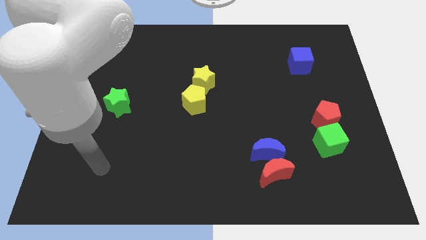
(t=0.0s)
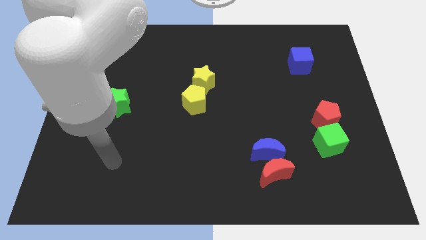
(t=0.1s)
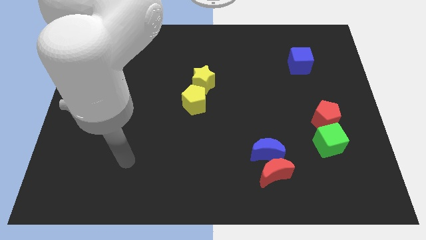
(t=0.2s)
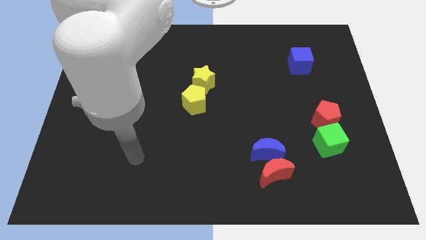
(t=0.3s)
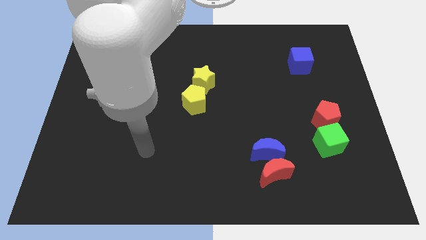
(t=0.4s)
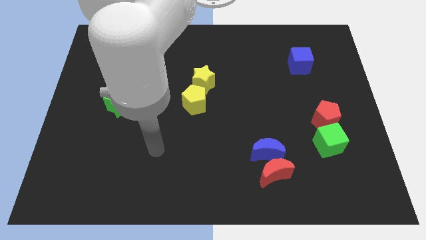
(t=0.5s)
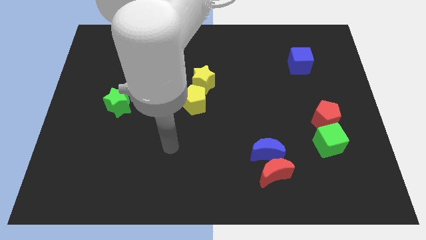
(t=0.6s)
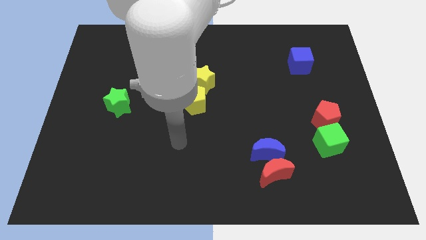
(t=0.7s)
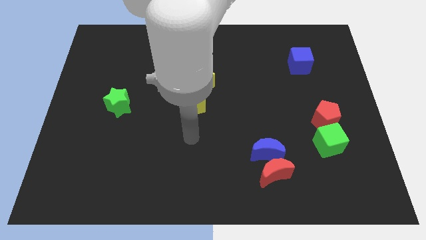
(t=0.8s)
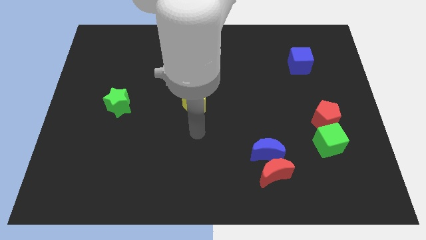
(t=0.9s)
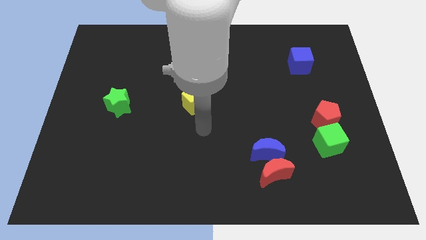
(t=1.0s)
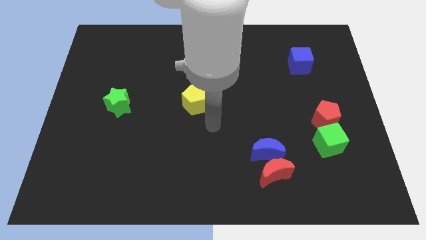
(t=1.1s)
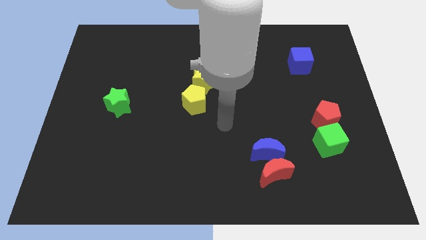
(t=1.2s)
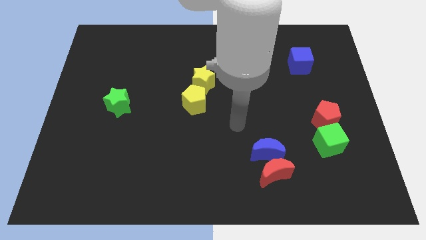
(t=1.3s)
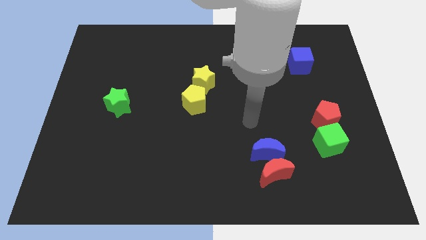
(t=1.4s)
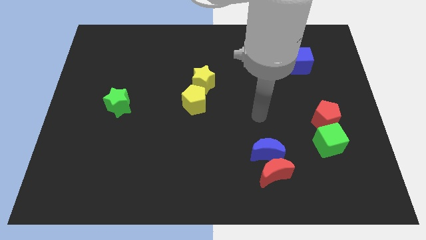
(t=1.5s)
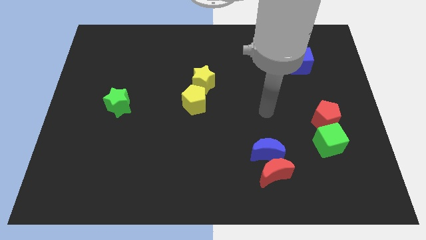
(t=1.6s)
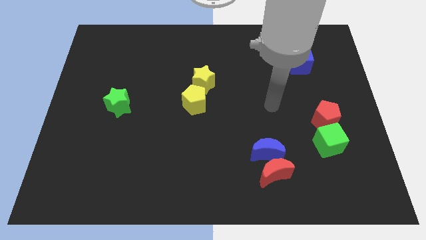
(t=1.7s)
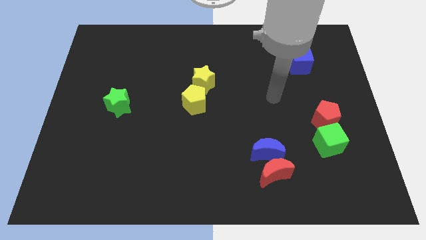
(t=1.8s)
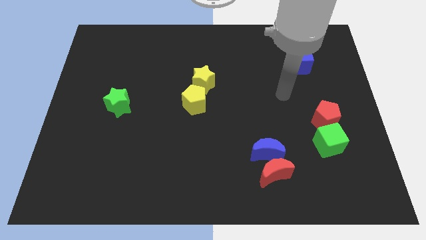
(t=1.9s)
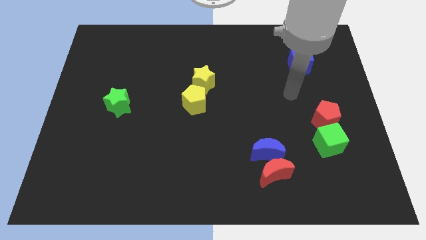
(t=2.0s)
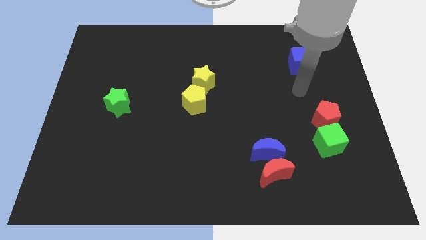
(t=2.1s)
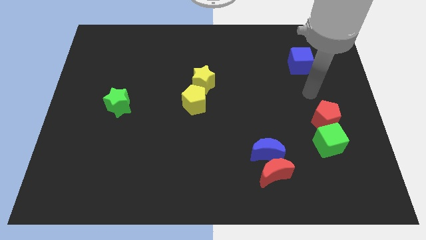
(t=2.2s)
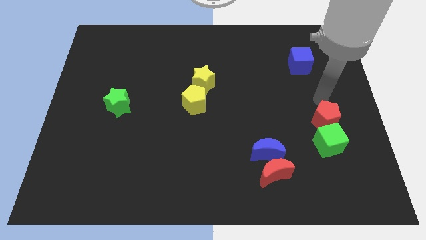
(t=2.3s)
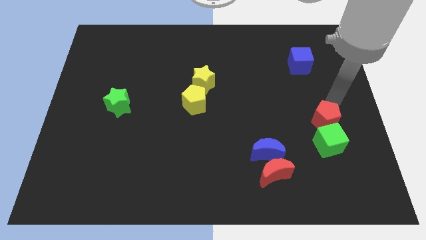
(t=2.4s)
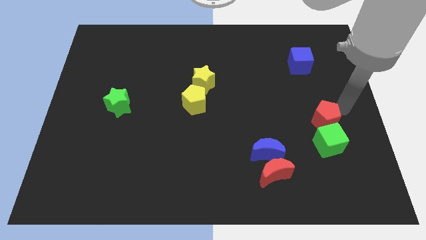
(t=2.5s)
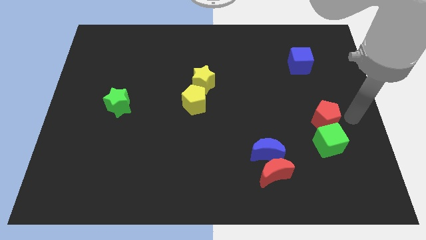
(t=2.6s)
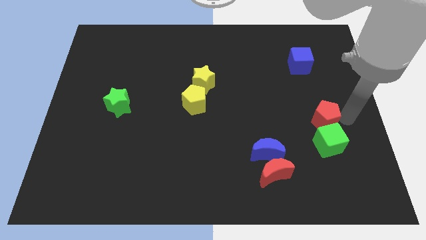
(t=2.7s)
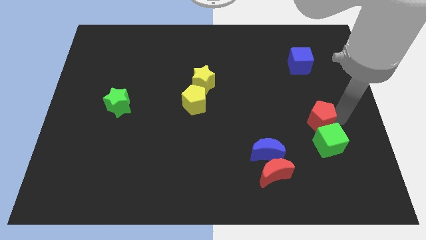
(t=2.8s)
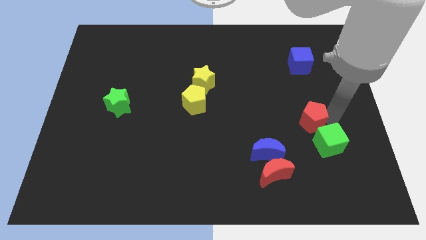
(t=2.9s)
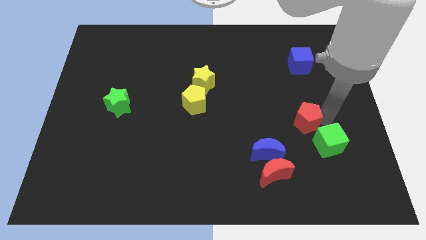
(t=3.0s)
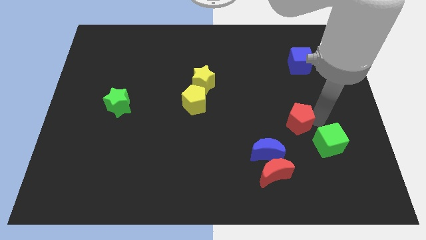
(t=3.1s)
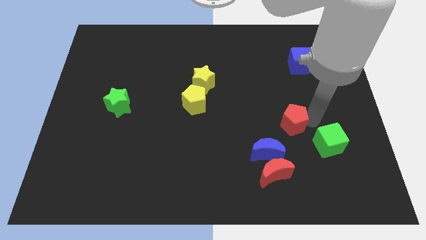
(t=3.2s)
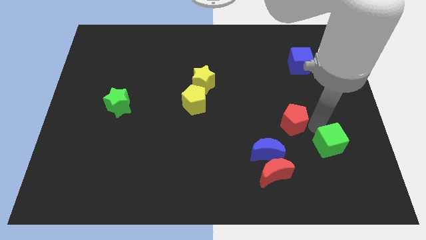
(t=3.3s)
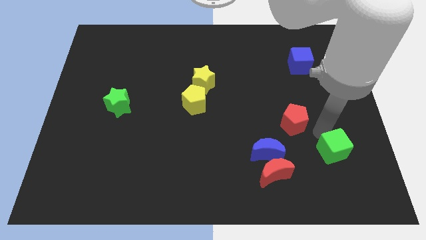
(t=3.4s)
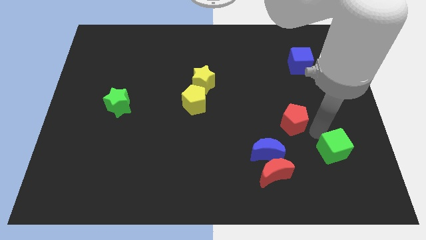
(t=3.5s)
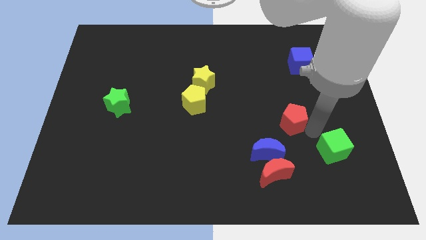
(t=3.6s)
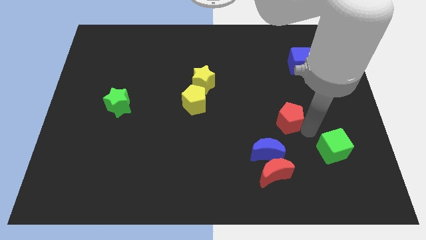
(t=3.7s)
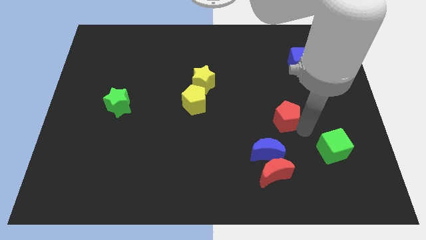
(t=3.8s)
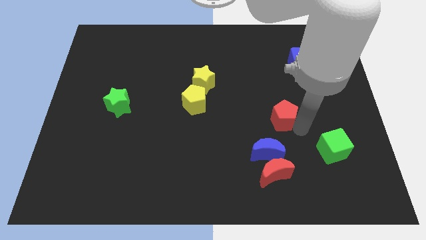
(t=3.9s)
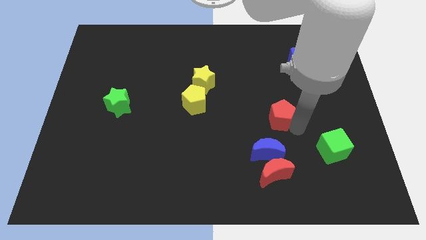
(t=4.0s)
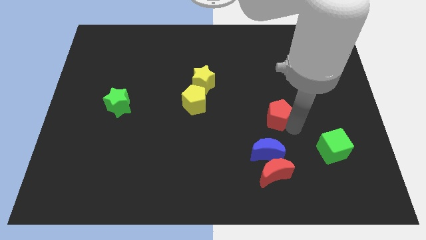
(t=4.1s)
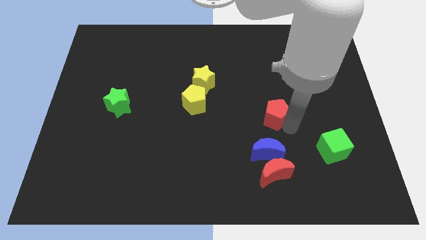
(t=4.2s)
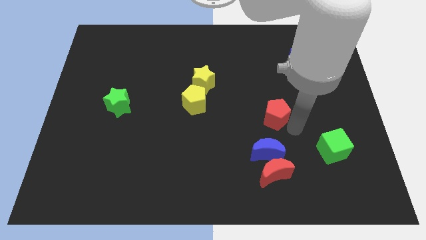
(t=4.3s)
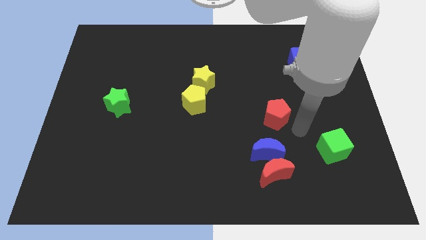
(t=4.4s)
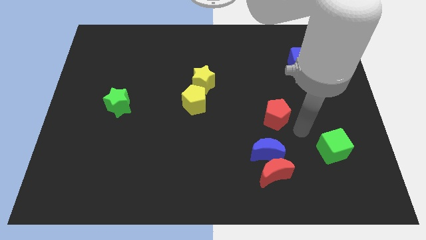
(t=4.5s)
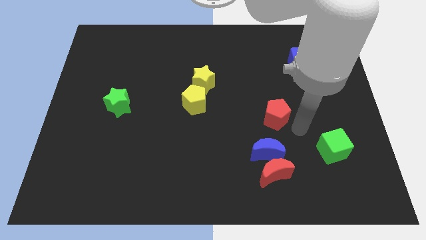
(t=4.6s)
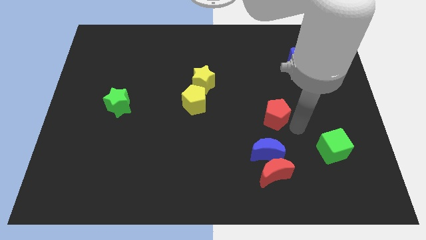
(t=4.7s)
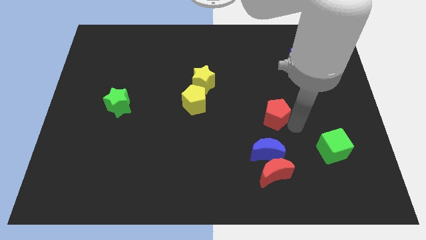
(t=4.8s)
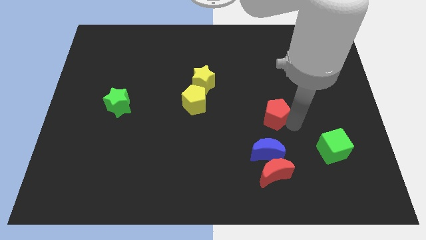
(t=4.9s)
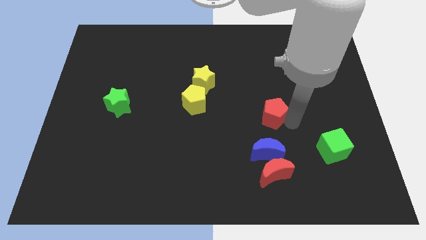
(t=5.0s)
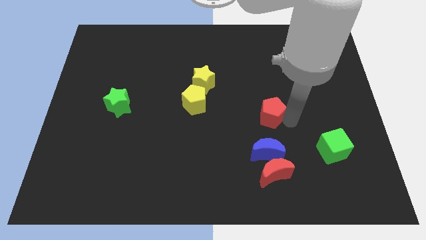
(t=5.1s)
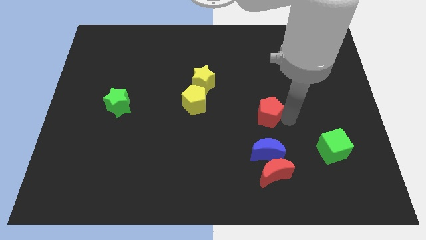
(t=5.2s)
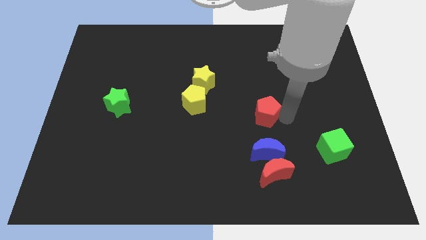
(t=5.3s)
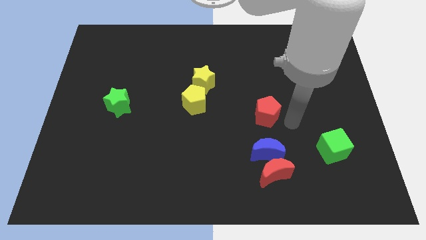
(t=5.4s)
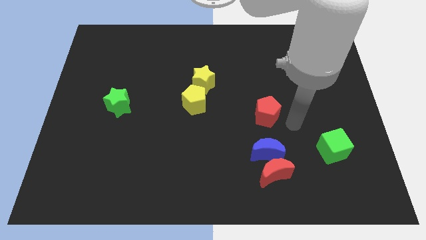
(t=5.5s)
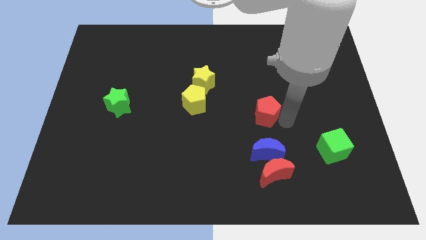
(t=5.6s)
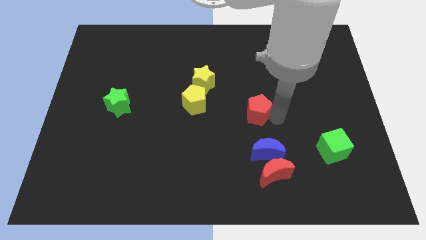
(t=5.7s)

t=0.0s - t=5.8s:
move the red pentagon to the center
